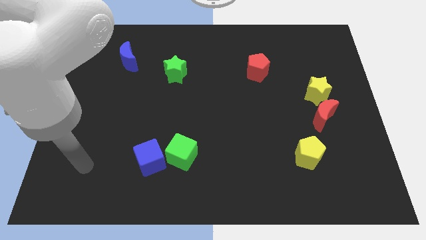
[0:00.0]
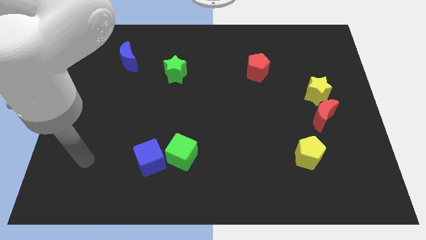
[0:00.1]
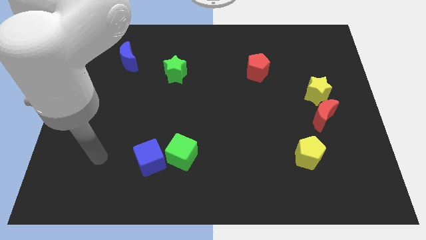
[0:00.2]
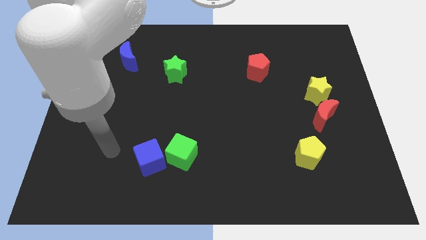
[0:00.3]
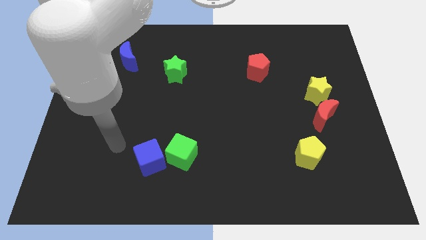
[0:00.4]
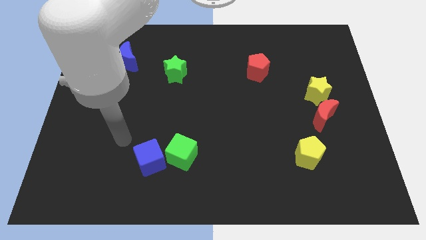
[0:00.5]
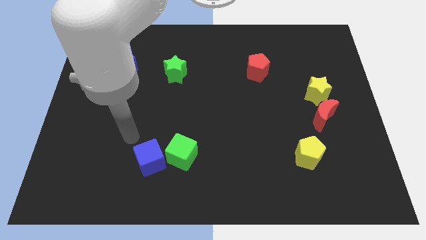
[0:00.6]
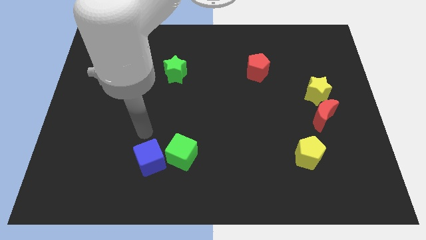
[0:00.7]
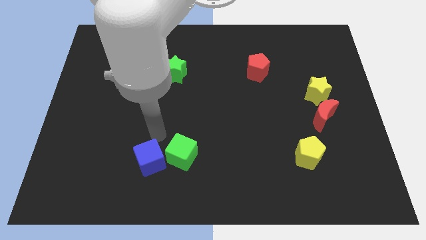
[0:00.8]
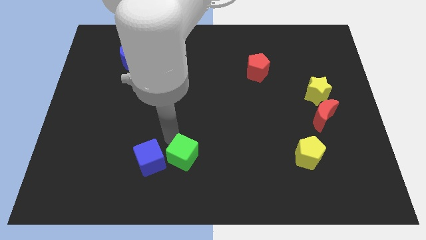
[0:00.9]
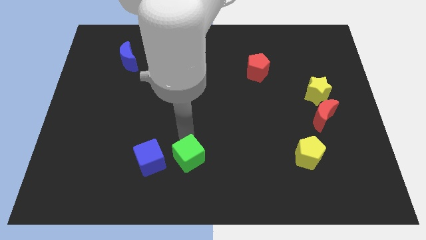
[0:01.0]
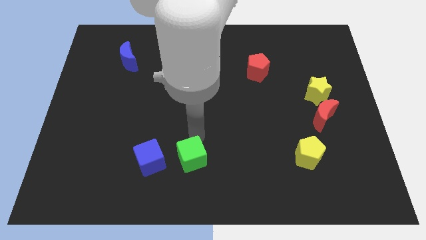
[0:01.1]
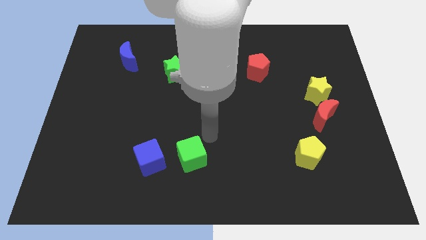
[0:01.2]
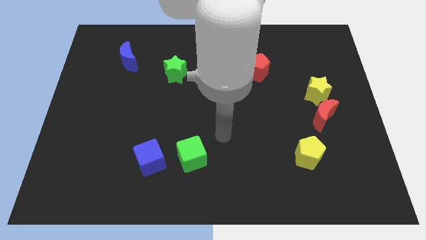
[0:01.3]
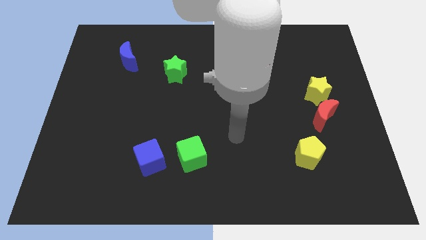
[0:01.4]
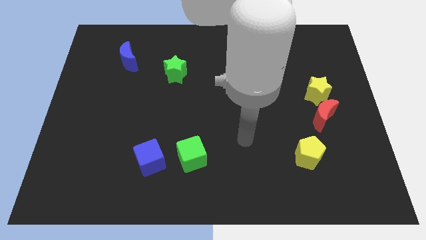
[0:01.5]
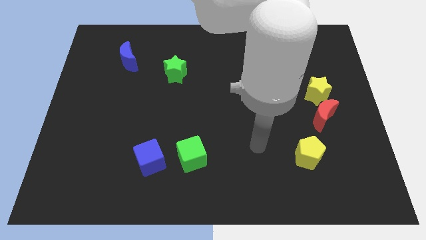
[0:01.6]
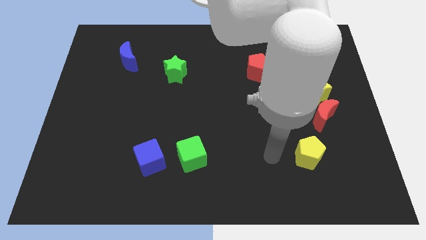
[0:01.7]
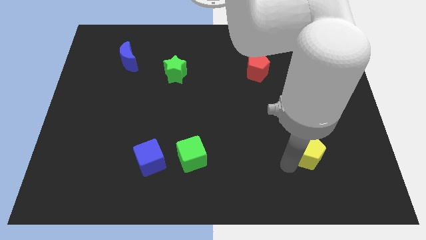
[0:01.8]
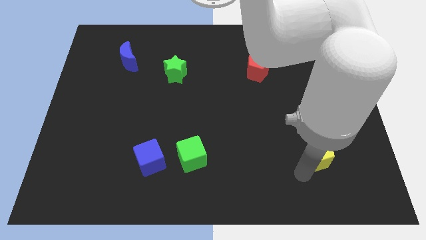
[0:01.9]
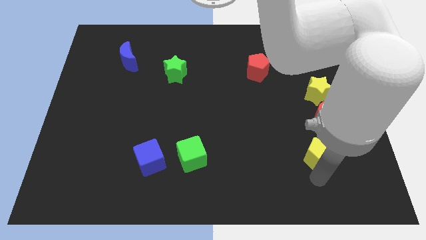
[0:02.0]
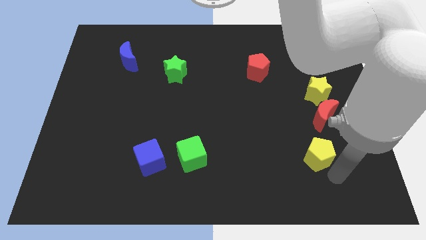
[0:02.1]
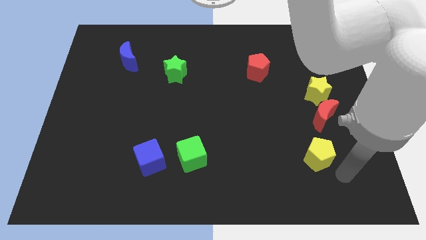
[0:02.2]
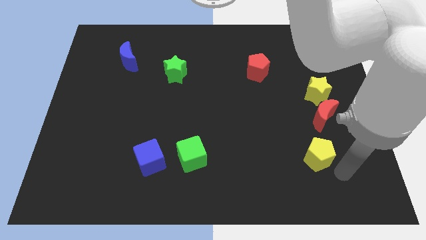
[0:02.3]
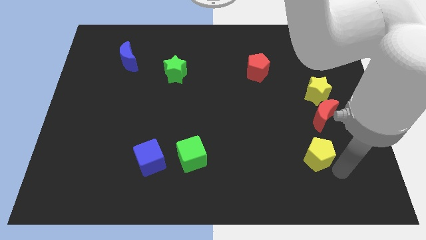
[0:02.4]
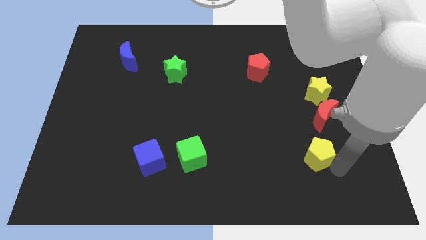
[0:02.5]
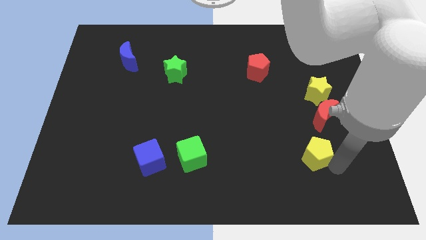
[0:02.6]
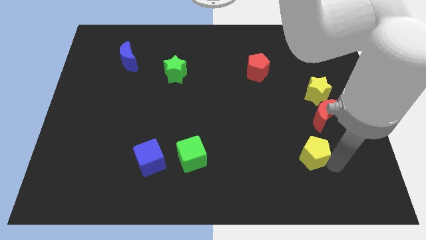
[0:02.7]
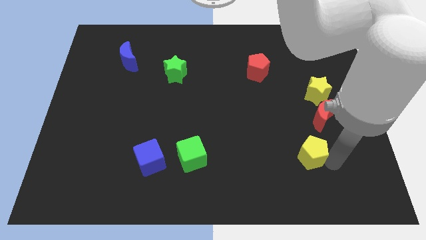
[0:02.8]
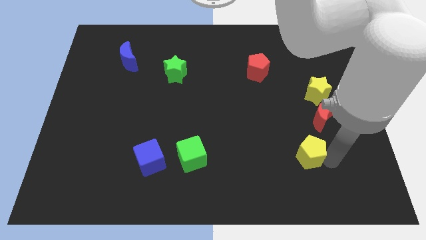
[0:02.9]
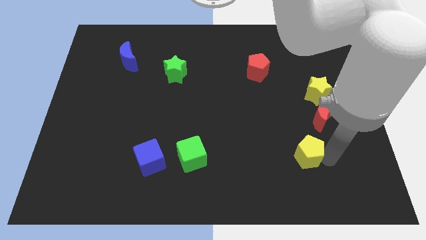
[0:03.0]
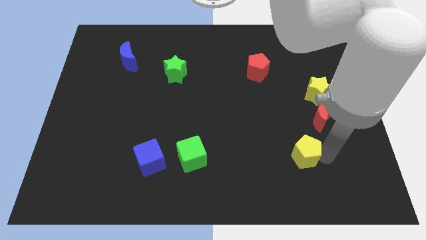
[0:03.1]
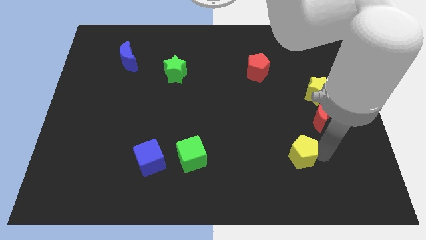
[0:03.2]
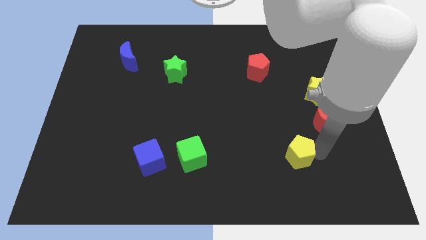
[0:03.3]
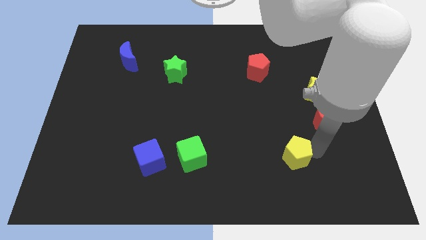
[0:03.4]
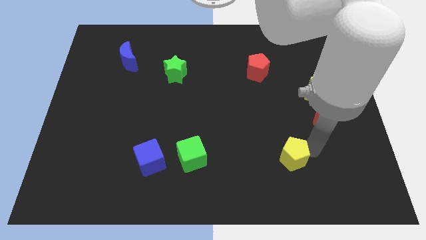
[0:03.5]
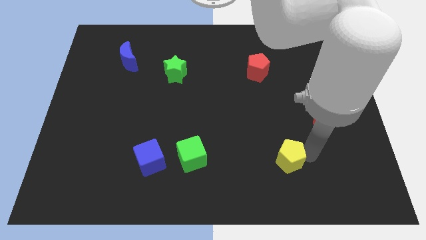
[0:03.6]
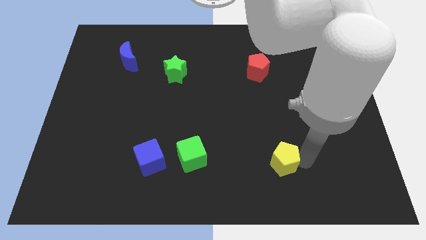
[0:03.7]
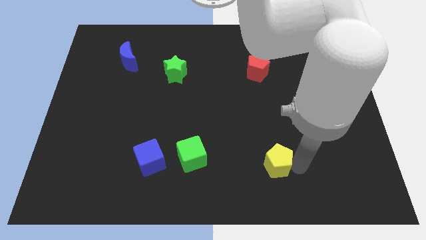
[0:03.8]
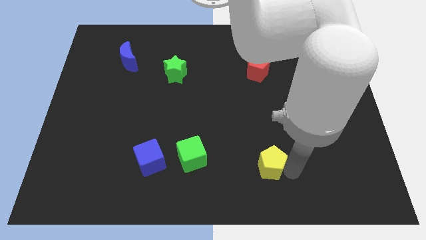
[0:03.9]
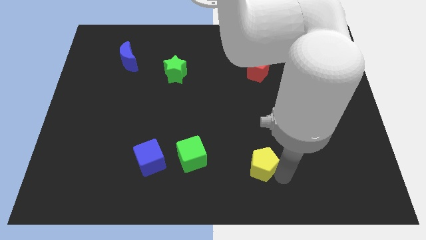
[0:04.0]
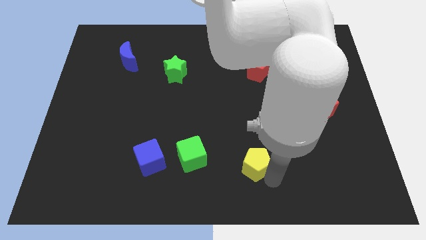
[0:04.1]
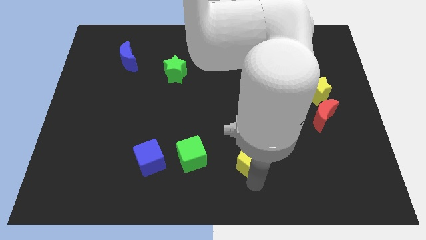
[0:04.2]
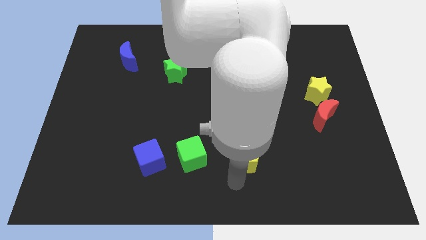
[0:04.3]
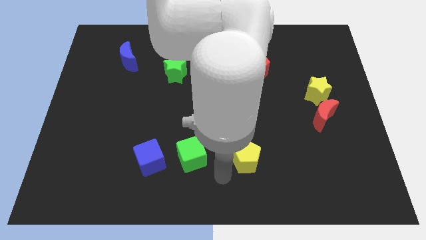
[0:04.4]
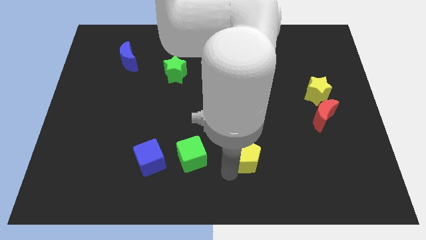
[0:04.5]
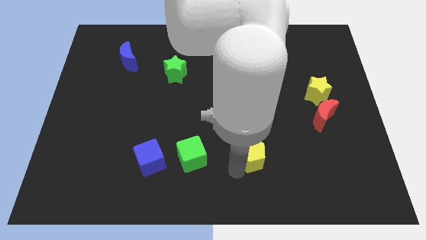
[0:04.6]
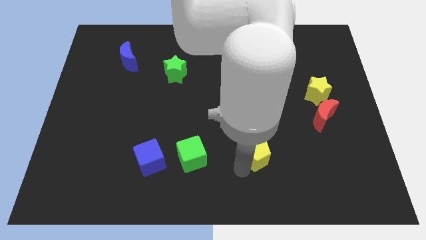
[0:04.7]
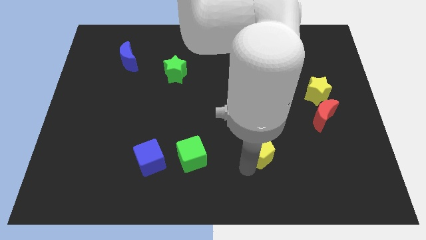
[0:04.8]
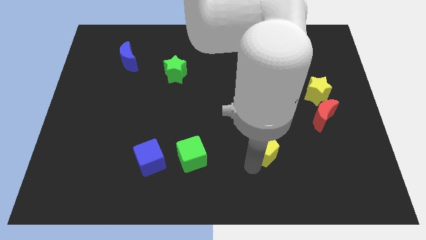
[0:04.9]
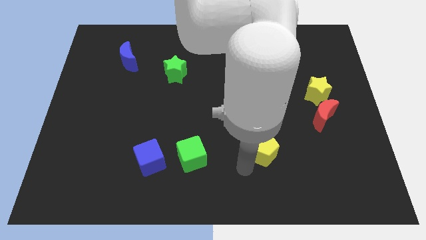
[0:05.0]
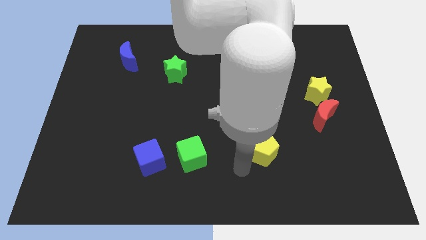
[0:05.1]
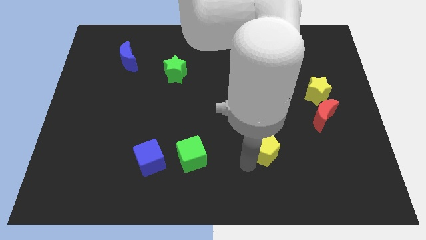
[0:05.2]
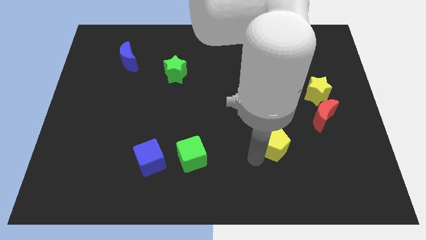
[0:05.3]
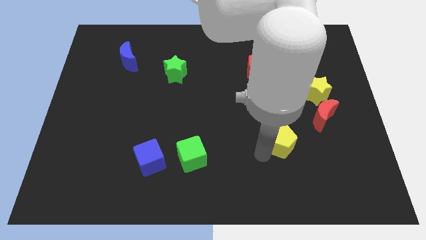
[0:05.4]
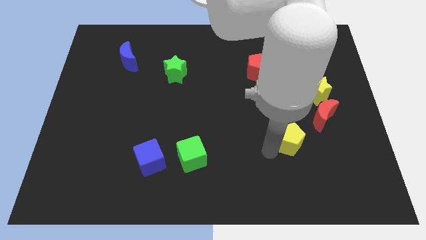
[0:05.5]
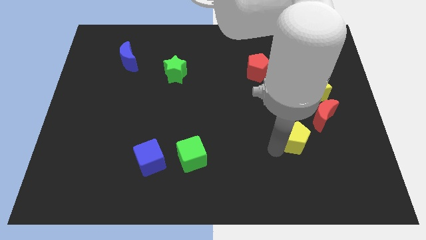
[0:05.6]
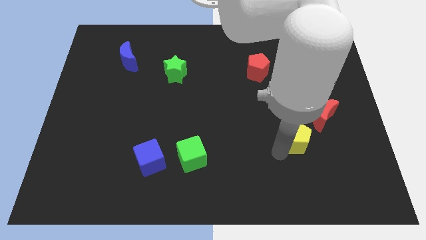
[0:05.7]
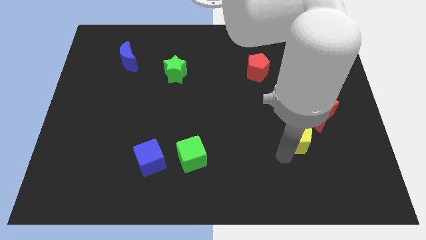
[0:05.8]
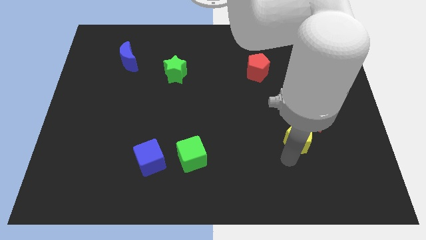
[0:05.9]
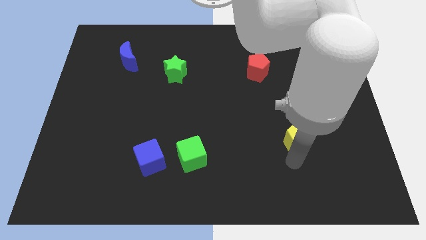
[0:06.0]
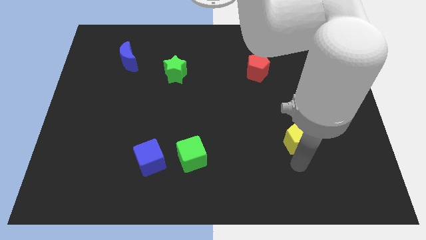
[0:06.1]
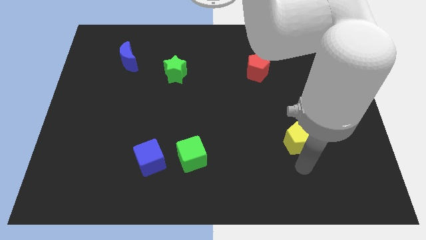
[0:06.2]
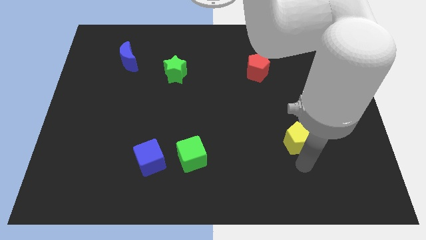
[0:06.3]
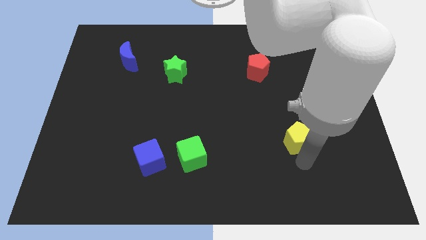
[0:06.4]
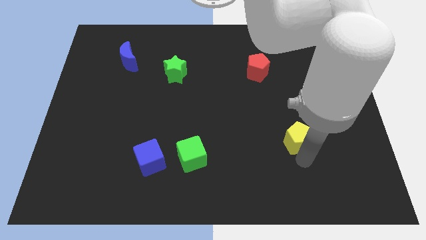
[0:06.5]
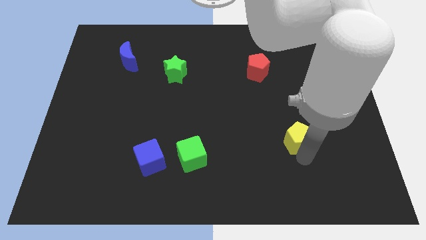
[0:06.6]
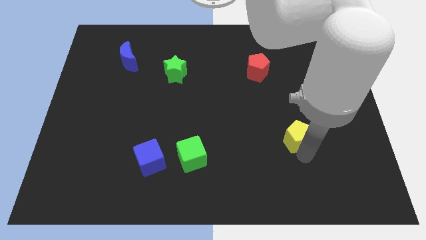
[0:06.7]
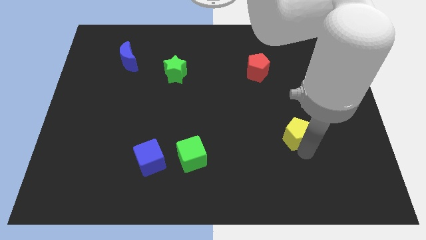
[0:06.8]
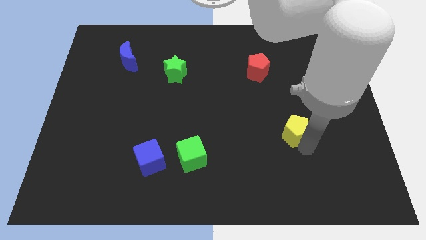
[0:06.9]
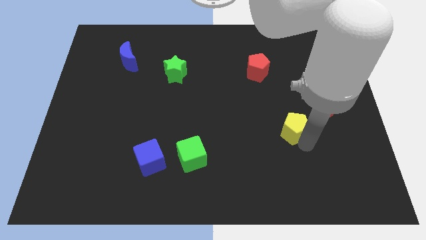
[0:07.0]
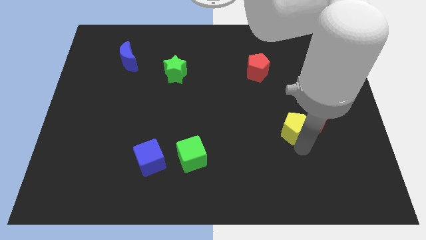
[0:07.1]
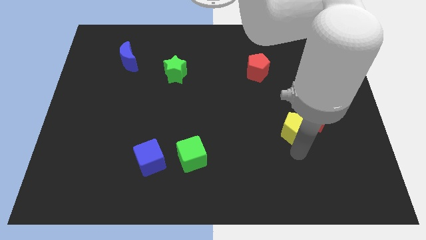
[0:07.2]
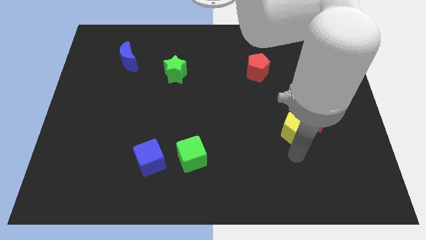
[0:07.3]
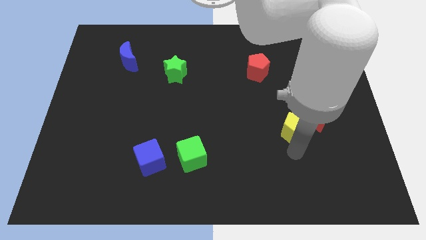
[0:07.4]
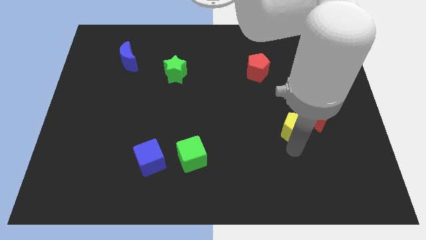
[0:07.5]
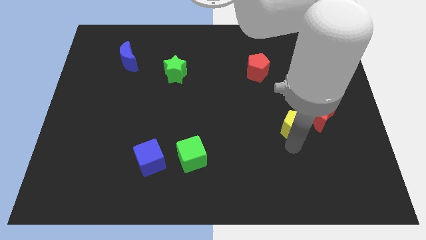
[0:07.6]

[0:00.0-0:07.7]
push the yellow pentagon a little bit upwards

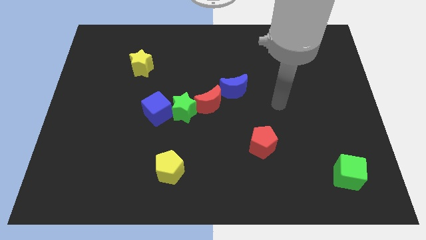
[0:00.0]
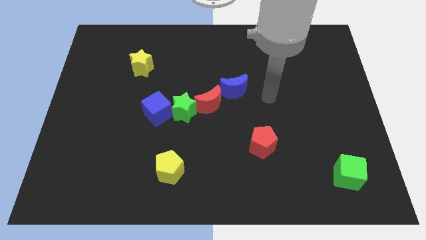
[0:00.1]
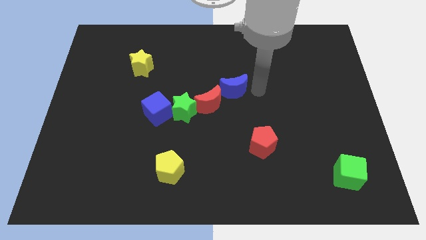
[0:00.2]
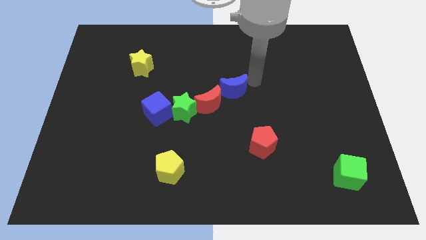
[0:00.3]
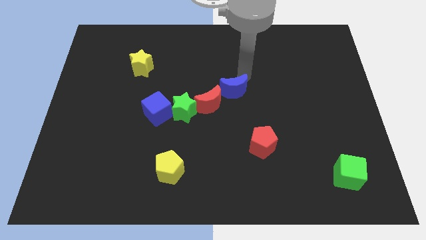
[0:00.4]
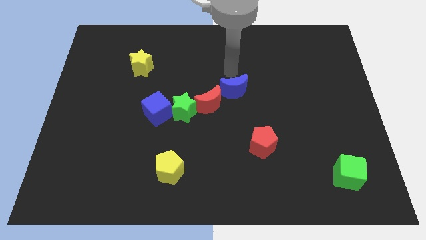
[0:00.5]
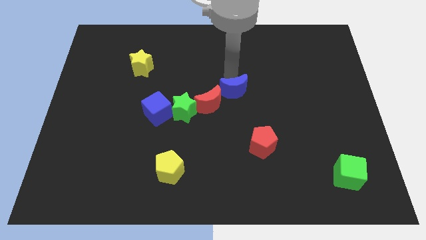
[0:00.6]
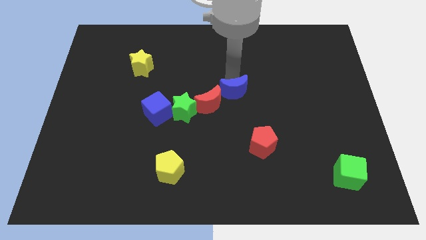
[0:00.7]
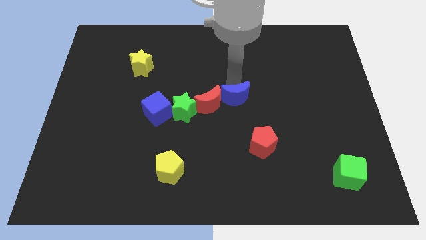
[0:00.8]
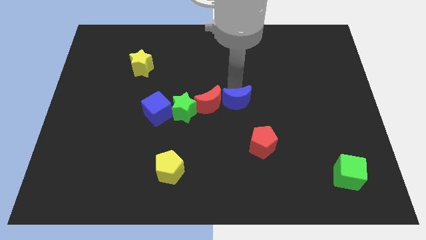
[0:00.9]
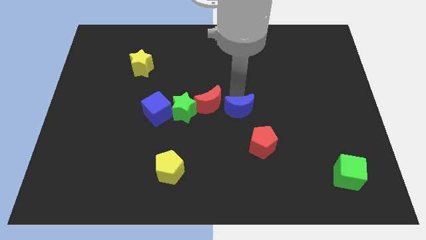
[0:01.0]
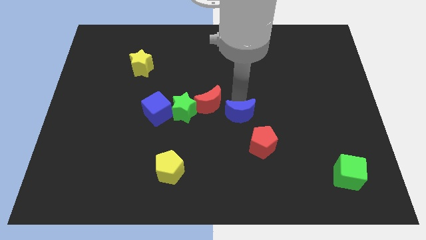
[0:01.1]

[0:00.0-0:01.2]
slightly push the blue moon downwards
